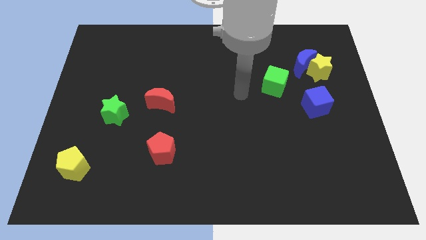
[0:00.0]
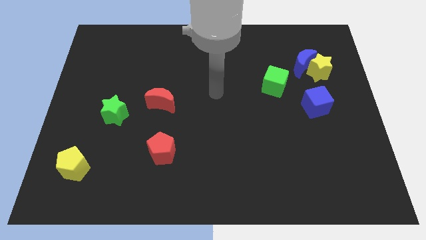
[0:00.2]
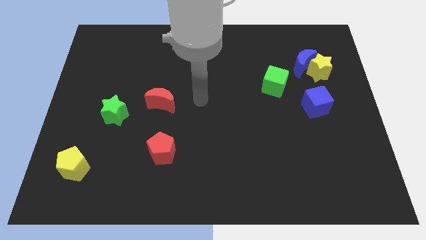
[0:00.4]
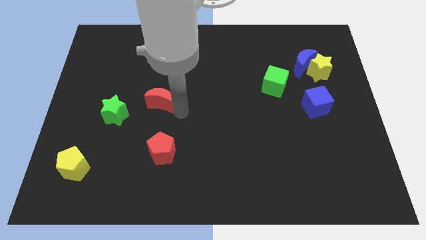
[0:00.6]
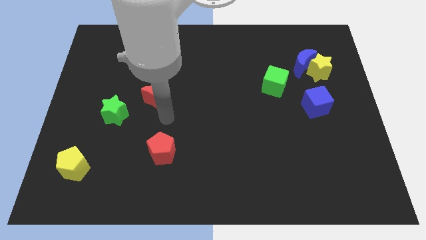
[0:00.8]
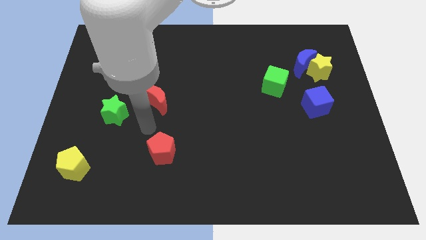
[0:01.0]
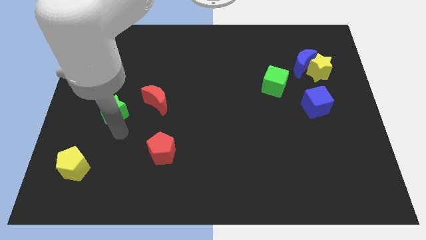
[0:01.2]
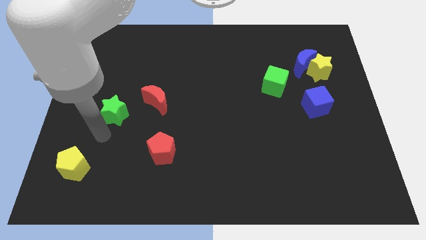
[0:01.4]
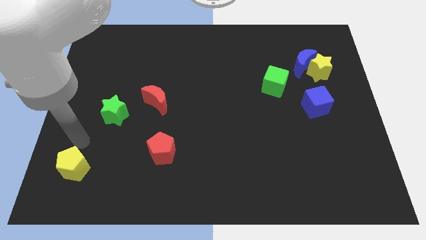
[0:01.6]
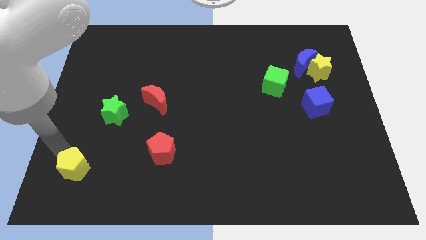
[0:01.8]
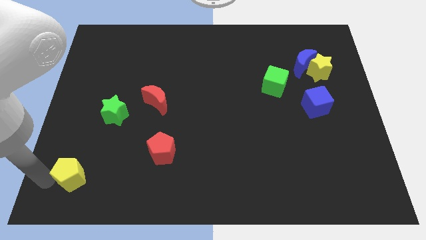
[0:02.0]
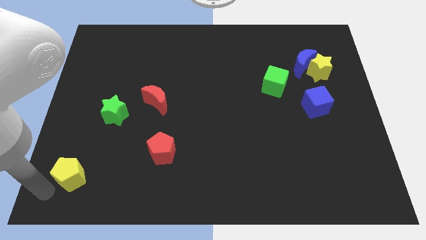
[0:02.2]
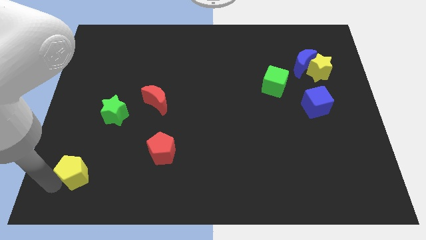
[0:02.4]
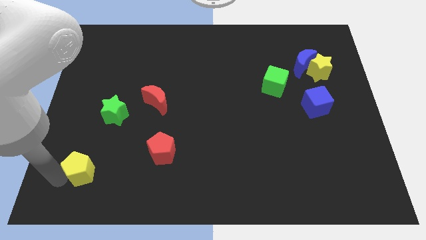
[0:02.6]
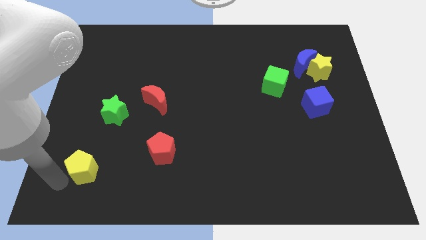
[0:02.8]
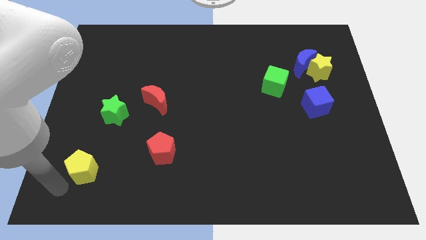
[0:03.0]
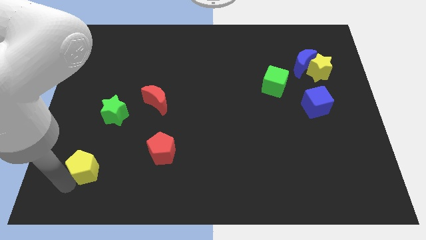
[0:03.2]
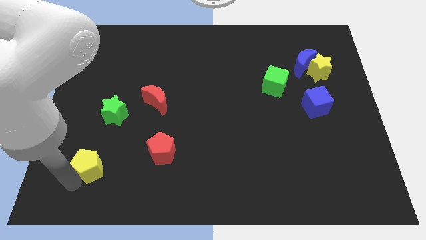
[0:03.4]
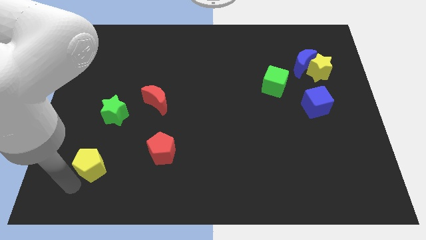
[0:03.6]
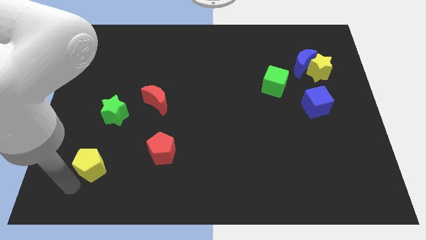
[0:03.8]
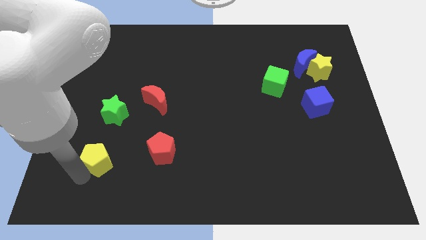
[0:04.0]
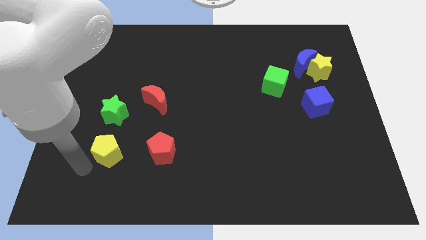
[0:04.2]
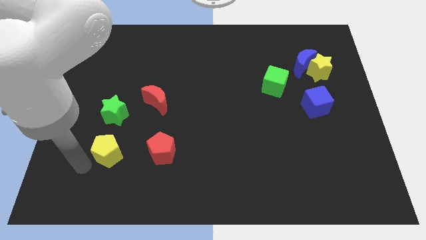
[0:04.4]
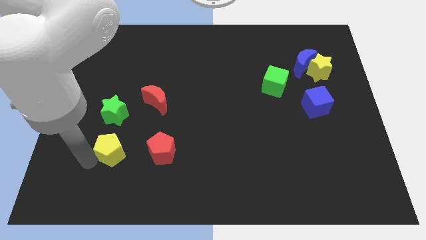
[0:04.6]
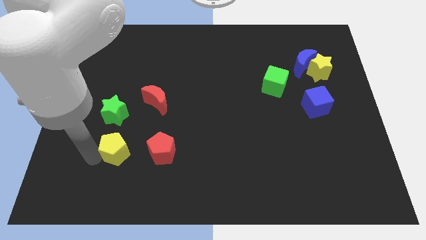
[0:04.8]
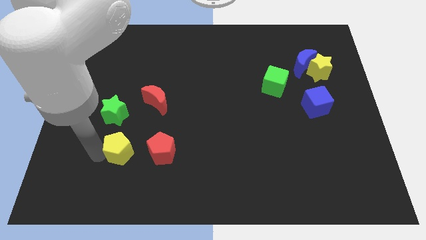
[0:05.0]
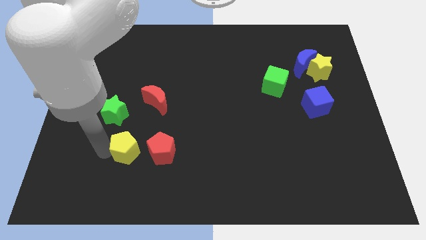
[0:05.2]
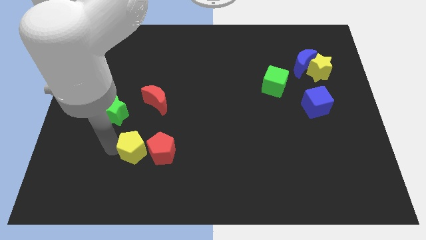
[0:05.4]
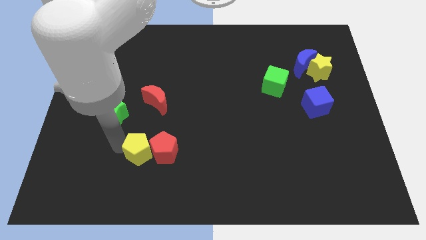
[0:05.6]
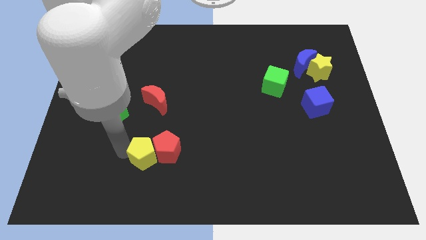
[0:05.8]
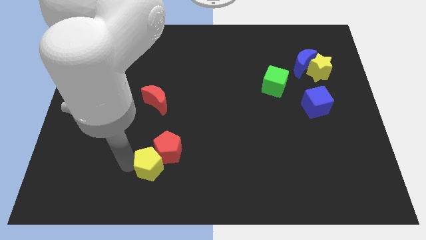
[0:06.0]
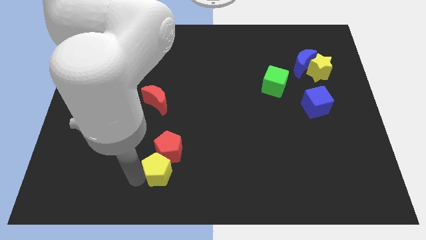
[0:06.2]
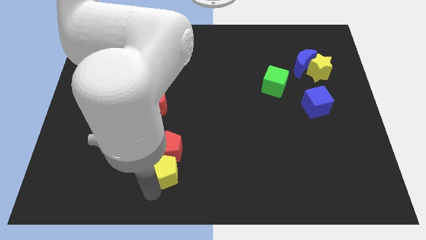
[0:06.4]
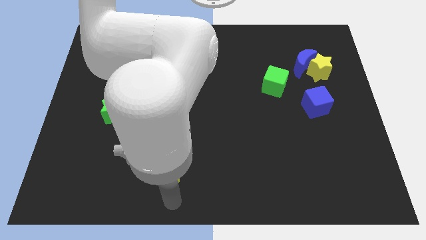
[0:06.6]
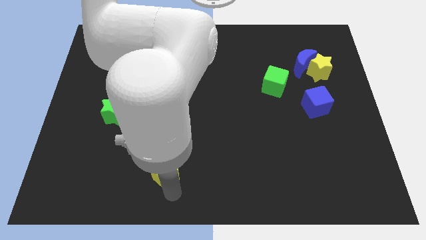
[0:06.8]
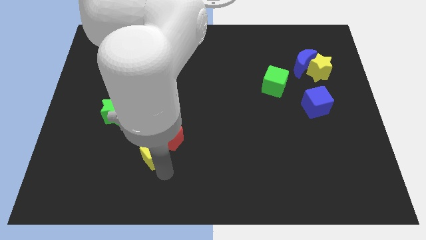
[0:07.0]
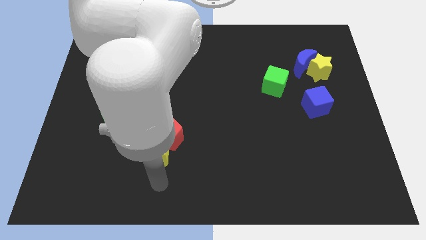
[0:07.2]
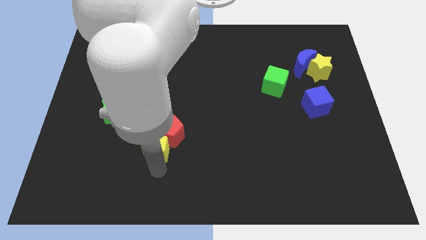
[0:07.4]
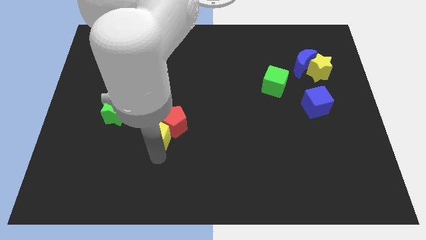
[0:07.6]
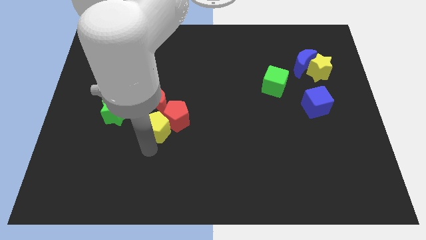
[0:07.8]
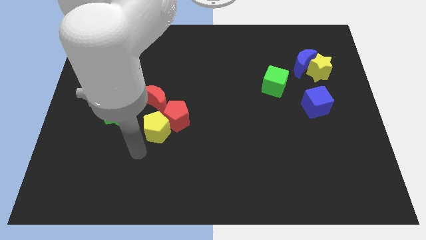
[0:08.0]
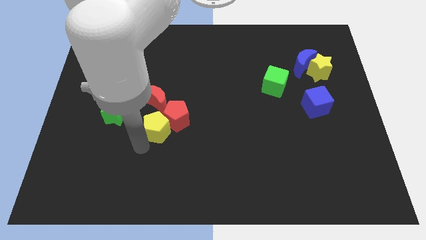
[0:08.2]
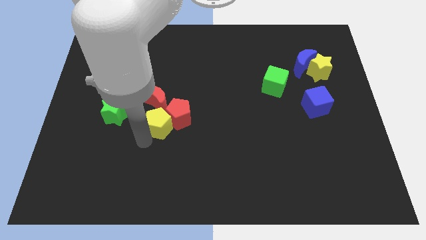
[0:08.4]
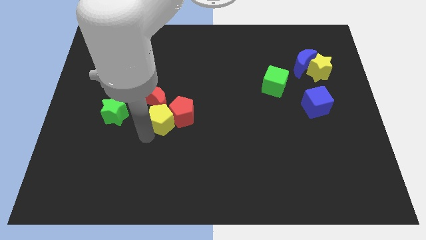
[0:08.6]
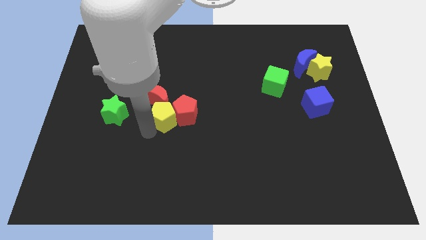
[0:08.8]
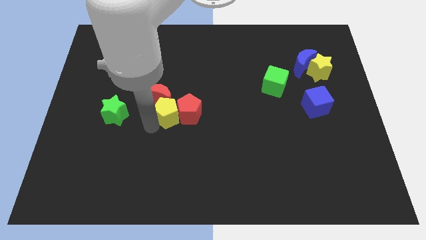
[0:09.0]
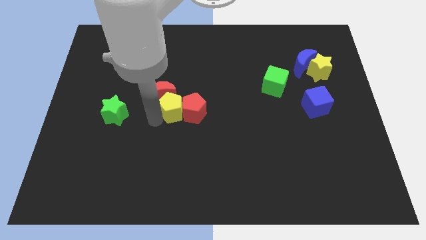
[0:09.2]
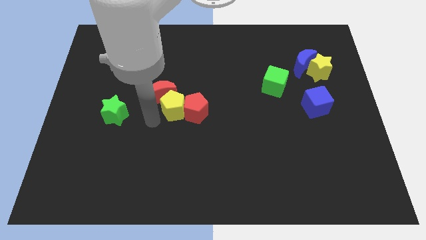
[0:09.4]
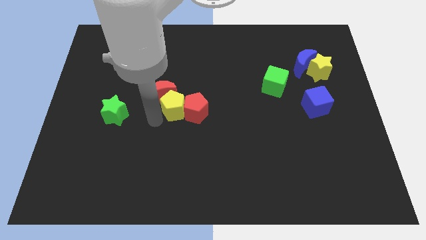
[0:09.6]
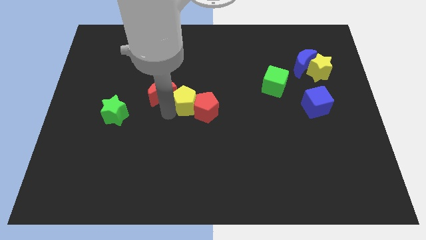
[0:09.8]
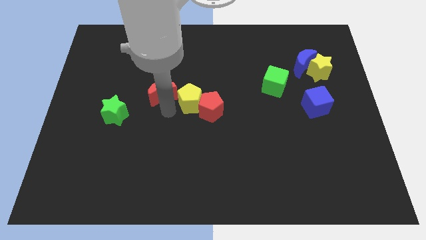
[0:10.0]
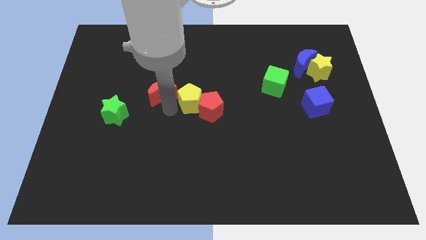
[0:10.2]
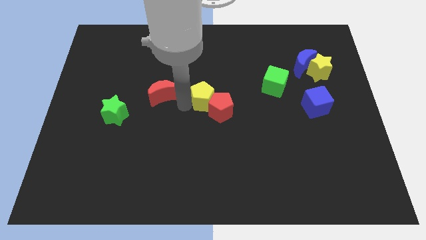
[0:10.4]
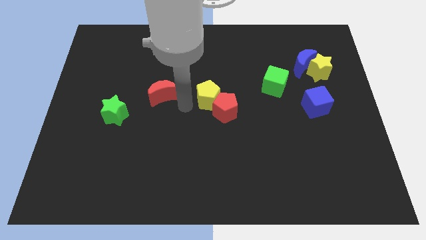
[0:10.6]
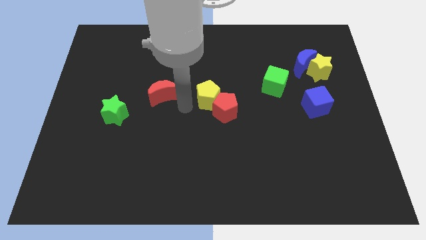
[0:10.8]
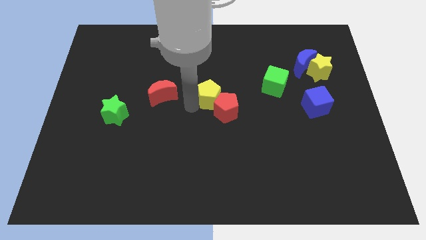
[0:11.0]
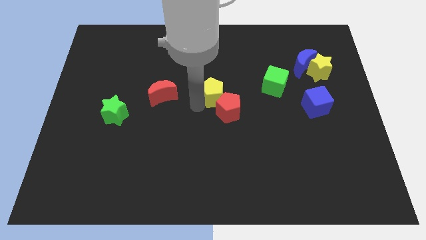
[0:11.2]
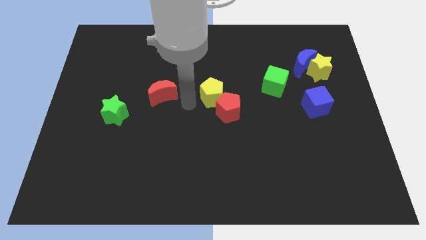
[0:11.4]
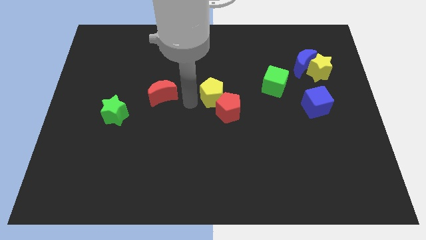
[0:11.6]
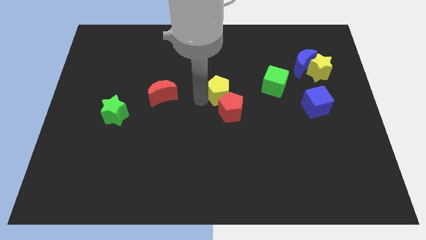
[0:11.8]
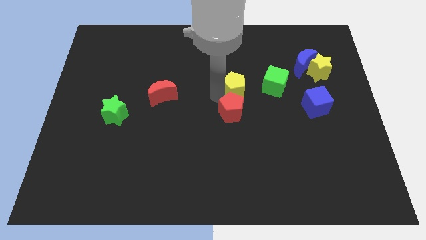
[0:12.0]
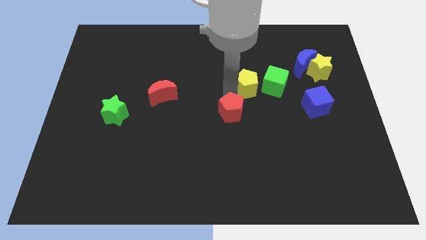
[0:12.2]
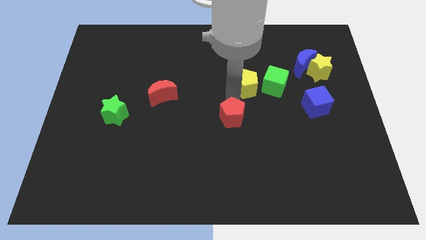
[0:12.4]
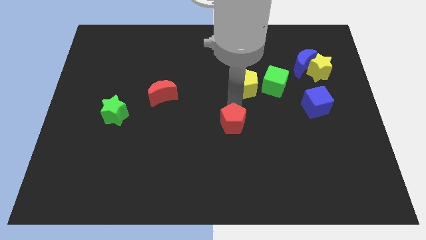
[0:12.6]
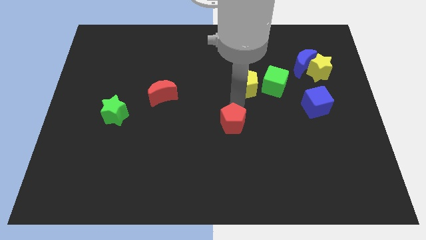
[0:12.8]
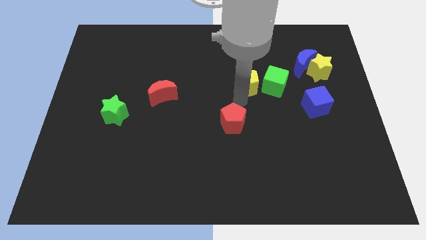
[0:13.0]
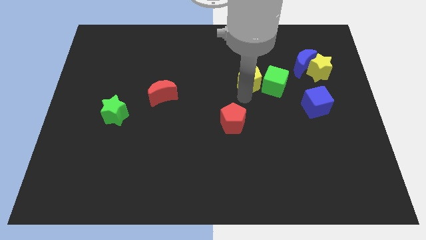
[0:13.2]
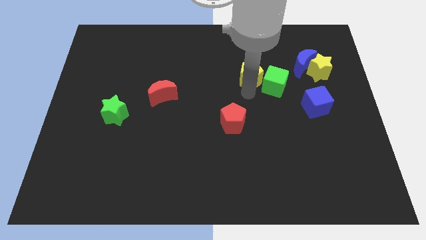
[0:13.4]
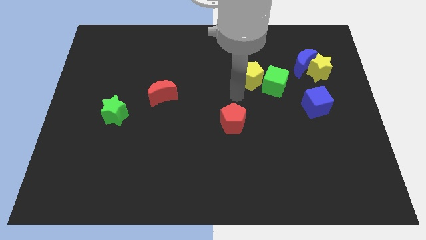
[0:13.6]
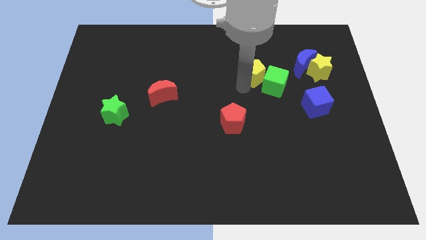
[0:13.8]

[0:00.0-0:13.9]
move the yellow pentagon to the left of the blue moon

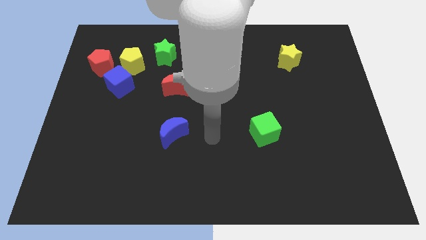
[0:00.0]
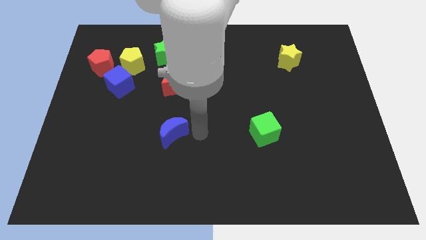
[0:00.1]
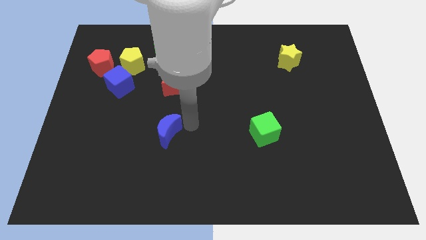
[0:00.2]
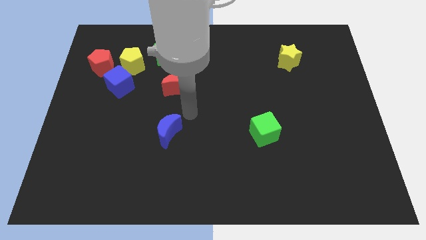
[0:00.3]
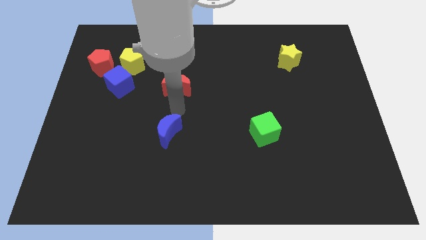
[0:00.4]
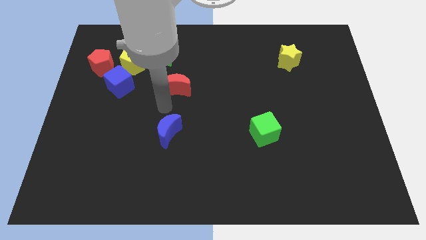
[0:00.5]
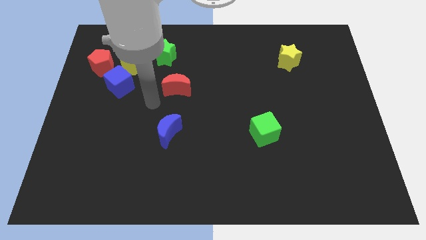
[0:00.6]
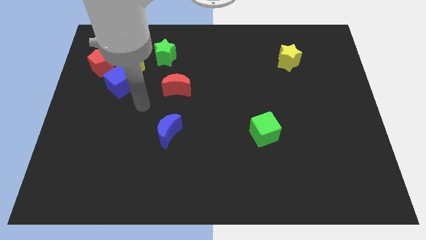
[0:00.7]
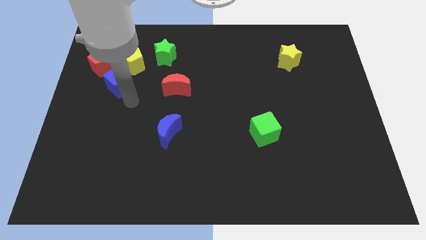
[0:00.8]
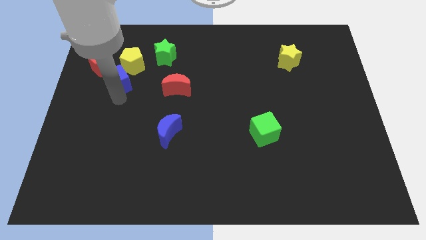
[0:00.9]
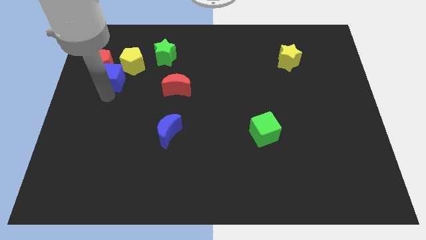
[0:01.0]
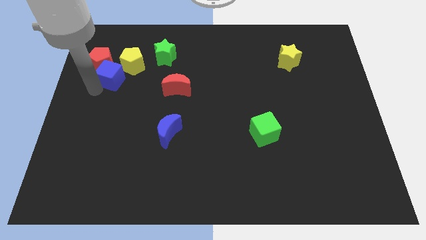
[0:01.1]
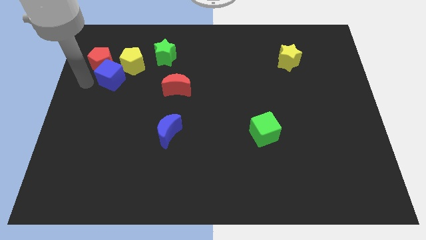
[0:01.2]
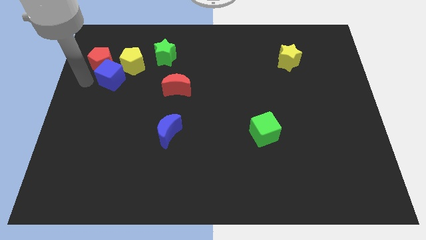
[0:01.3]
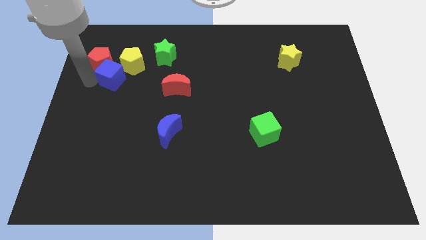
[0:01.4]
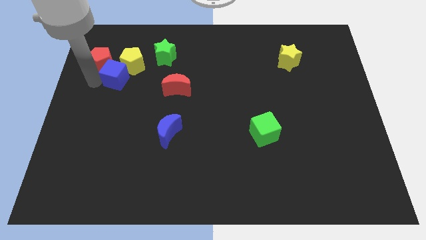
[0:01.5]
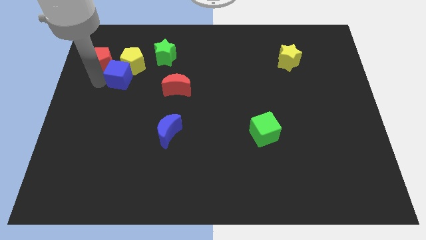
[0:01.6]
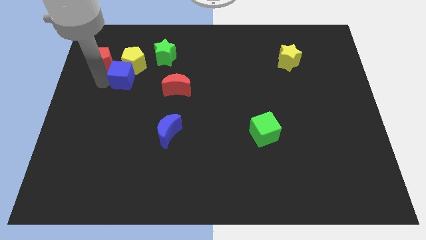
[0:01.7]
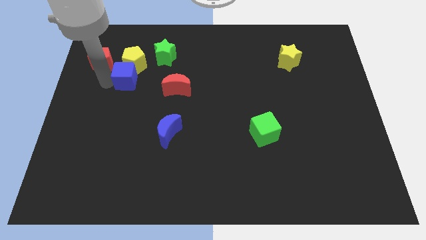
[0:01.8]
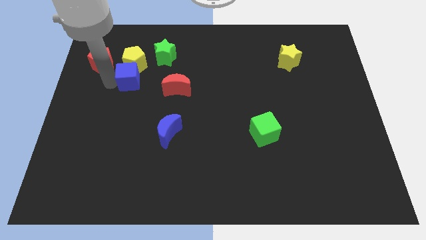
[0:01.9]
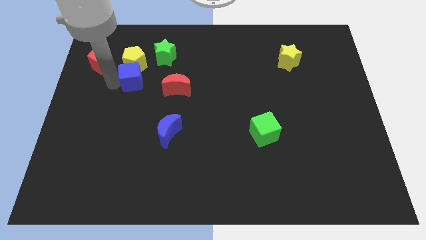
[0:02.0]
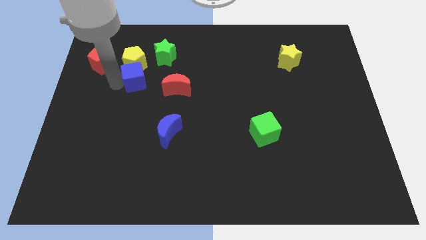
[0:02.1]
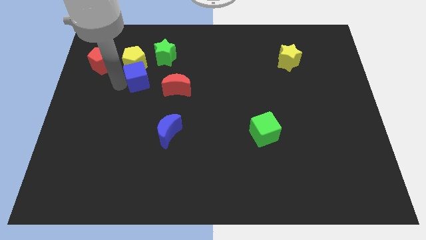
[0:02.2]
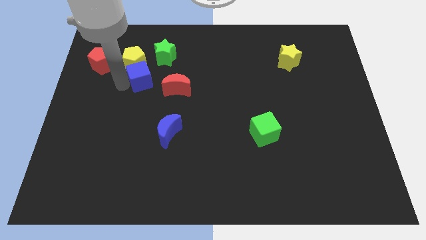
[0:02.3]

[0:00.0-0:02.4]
push the blue cube to the top left of the red moon
